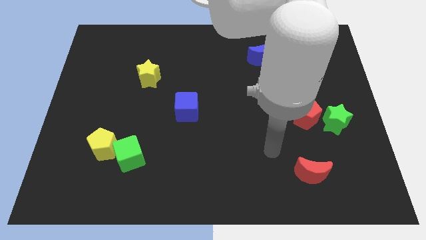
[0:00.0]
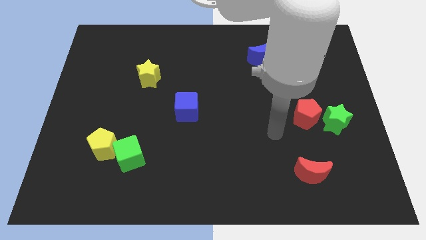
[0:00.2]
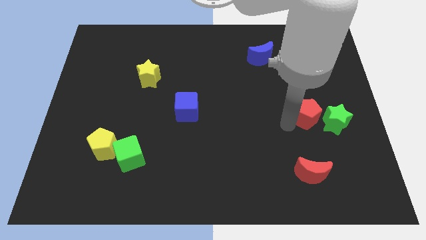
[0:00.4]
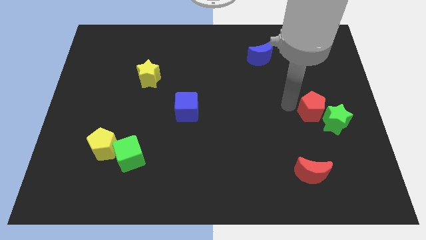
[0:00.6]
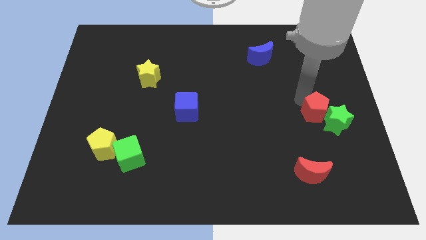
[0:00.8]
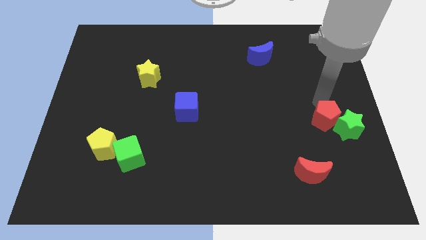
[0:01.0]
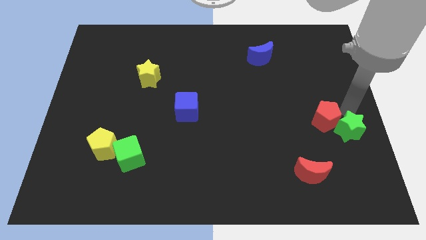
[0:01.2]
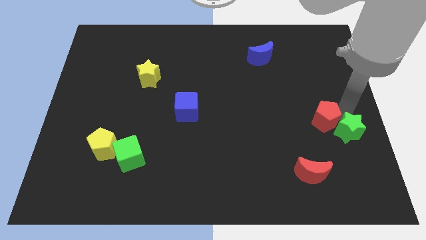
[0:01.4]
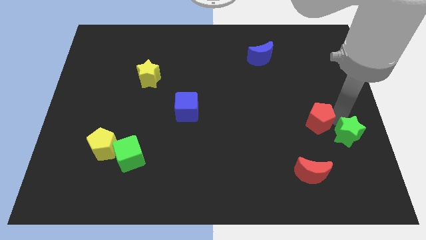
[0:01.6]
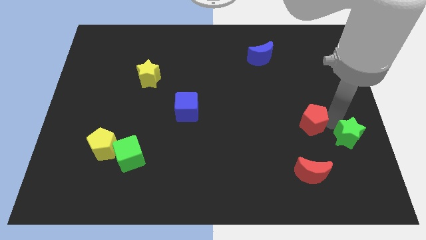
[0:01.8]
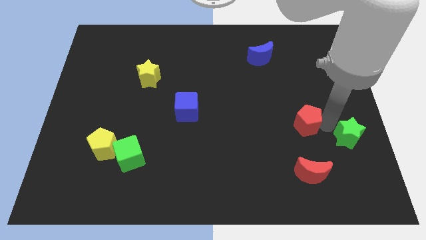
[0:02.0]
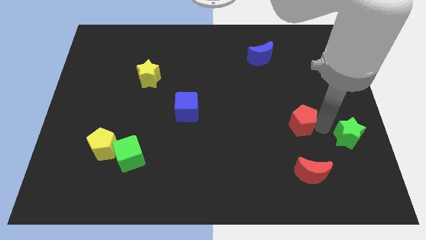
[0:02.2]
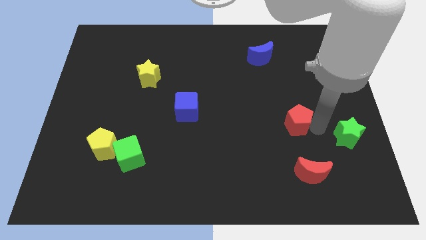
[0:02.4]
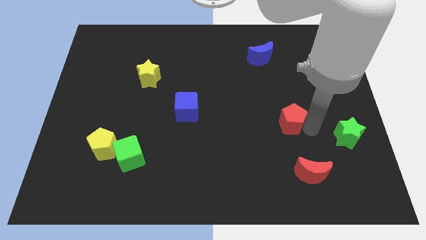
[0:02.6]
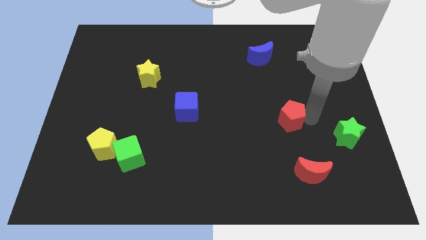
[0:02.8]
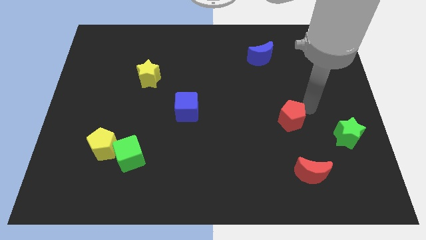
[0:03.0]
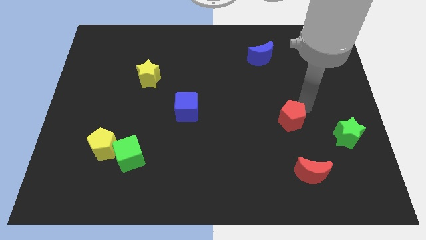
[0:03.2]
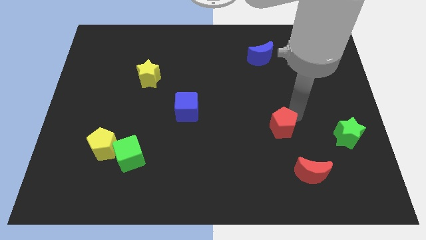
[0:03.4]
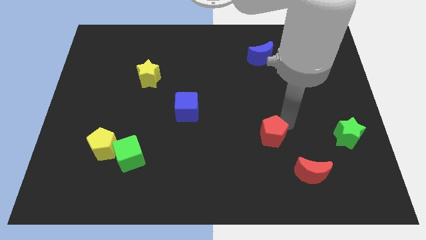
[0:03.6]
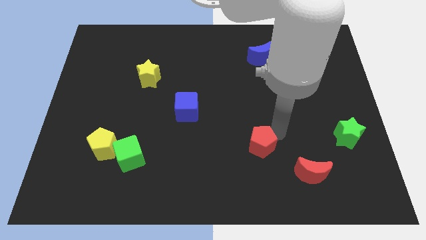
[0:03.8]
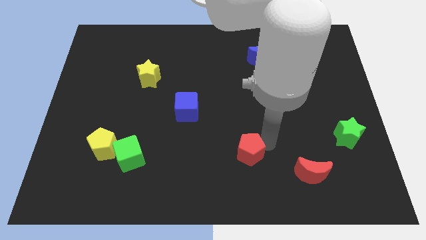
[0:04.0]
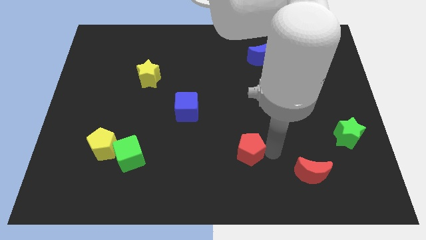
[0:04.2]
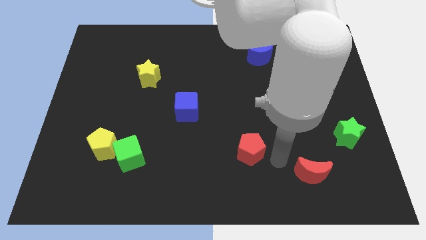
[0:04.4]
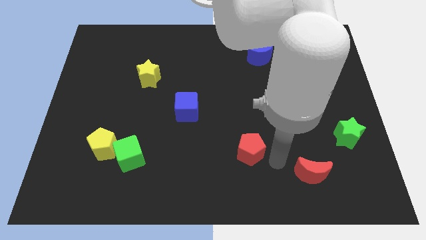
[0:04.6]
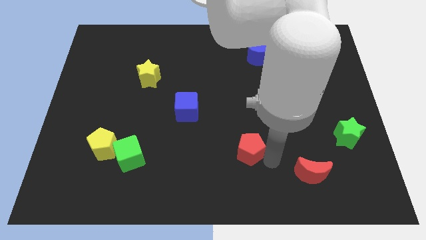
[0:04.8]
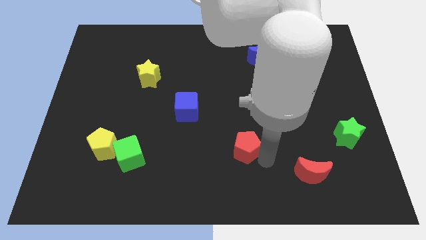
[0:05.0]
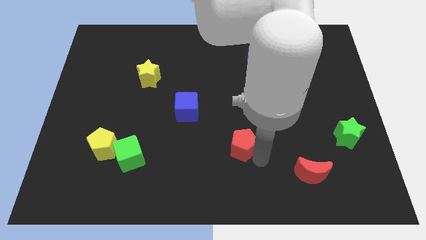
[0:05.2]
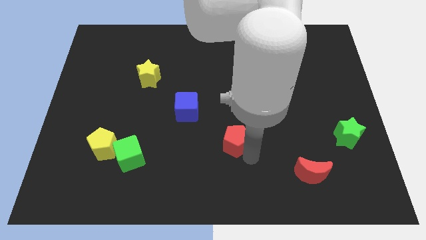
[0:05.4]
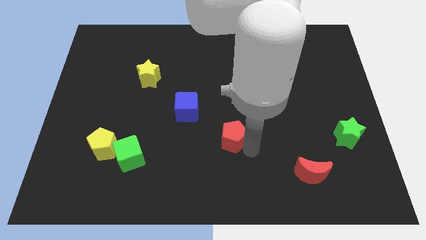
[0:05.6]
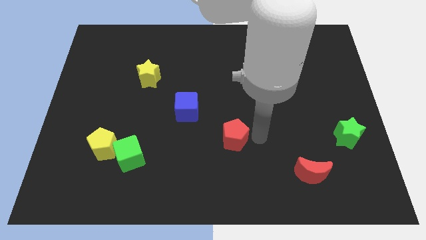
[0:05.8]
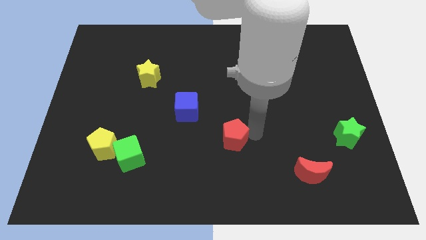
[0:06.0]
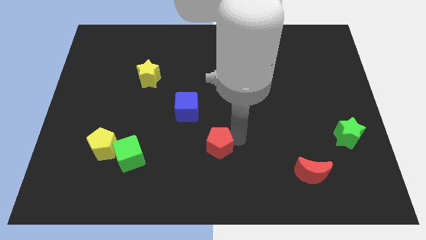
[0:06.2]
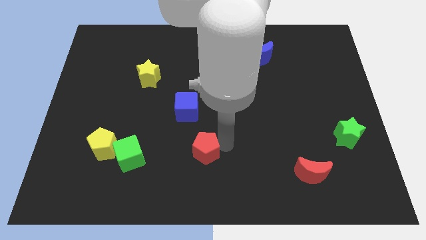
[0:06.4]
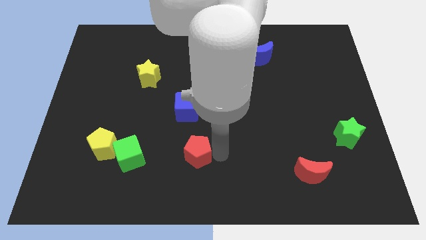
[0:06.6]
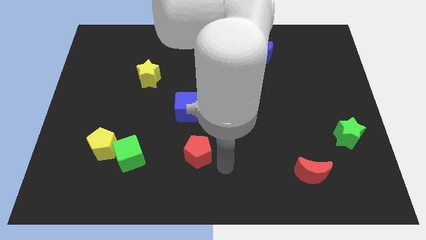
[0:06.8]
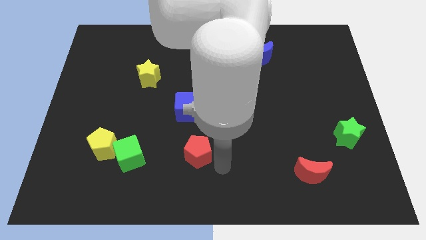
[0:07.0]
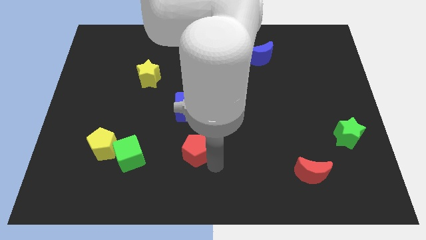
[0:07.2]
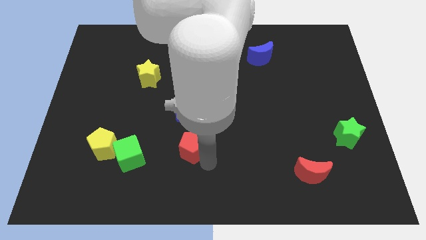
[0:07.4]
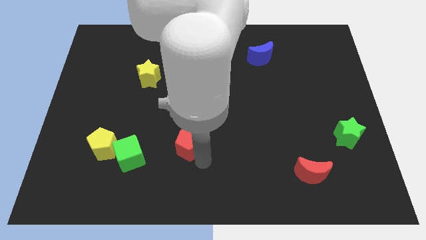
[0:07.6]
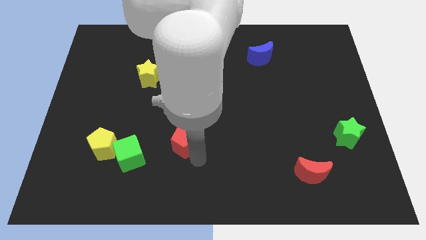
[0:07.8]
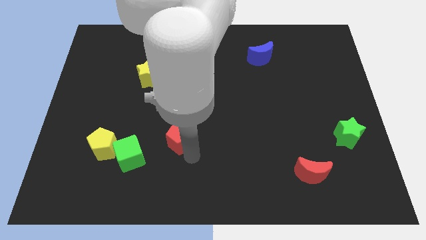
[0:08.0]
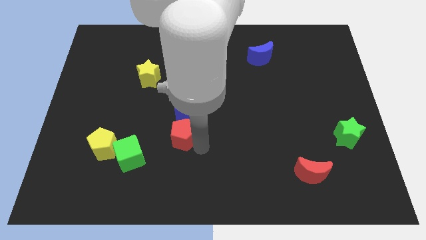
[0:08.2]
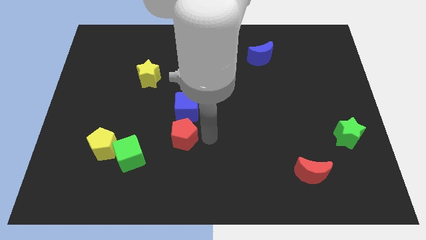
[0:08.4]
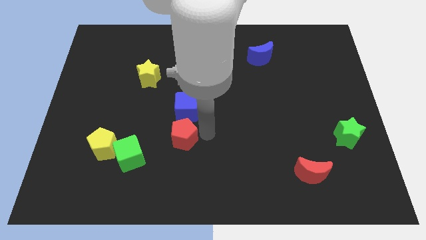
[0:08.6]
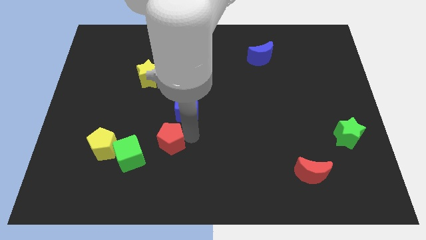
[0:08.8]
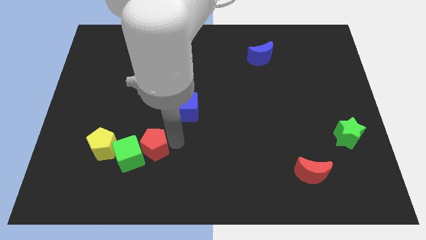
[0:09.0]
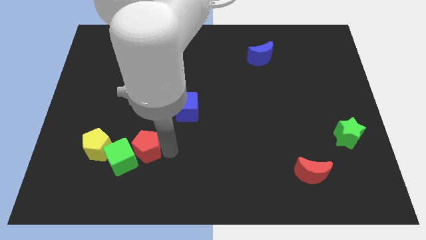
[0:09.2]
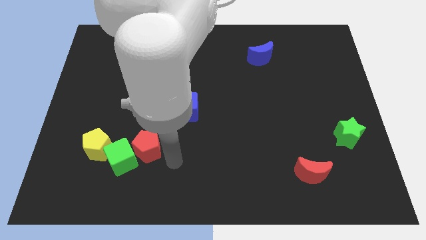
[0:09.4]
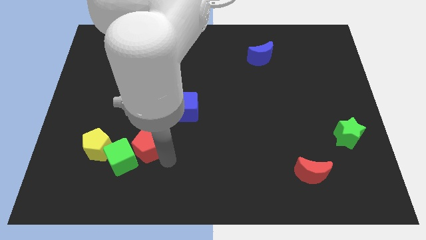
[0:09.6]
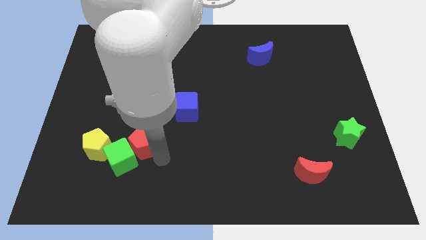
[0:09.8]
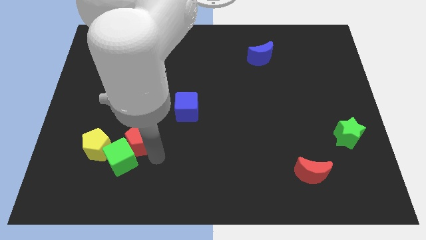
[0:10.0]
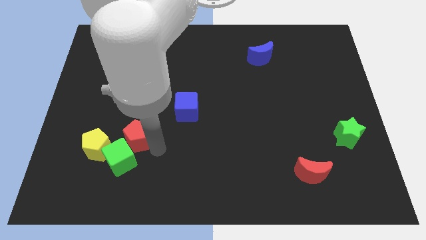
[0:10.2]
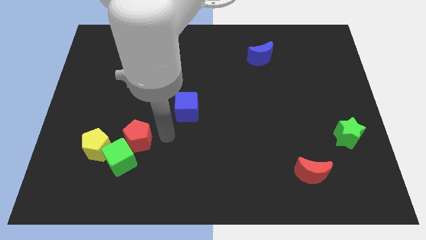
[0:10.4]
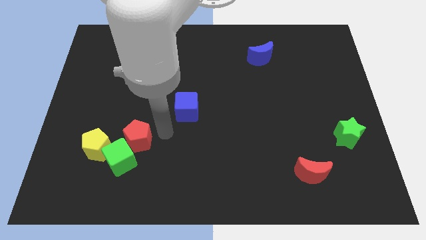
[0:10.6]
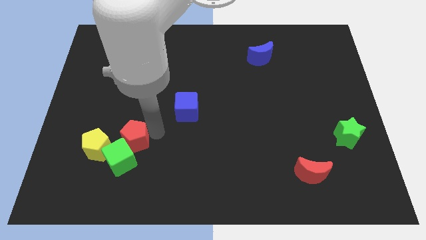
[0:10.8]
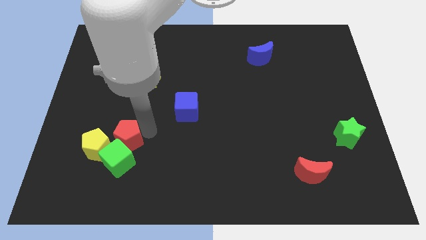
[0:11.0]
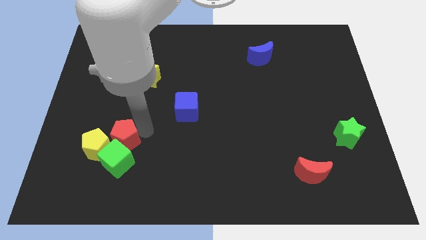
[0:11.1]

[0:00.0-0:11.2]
slide the red pentagon to the yellow pentagon

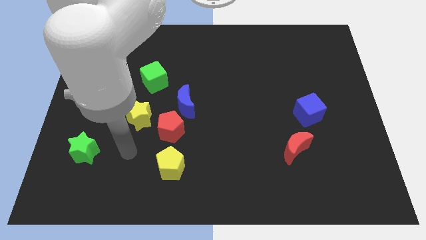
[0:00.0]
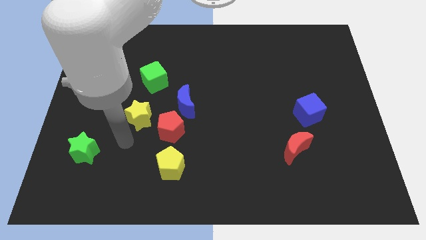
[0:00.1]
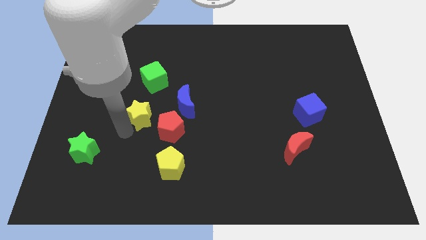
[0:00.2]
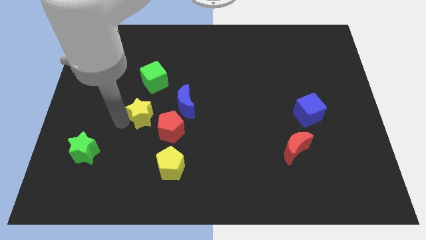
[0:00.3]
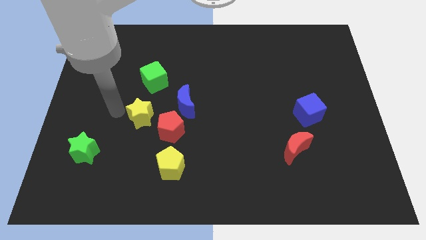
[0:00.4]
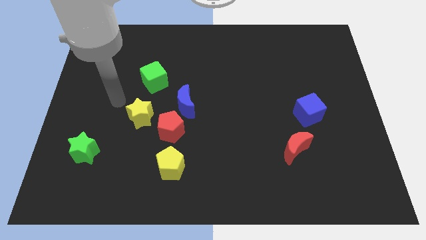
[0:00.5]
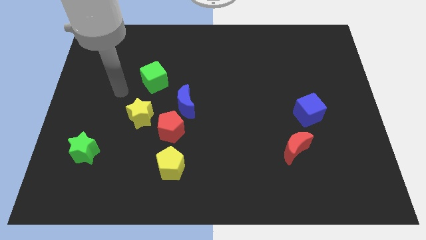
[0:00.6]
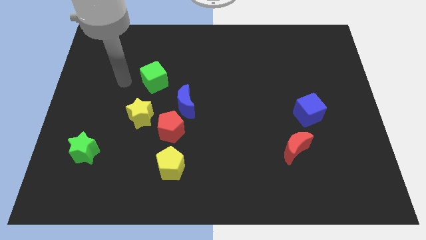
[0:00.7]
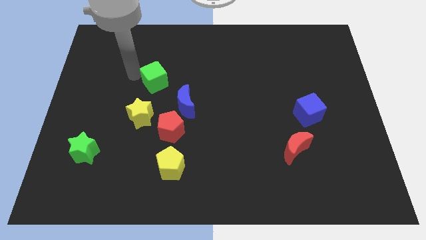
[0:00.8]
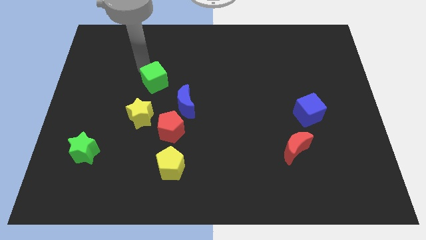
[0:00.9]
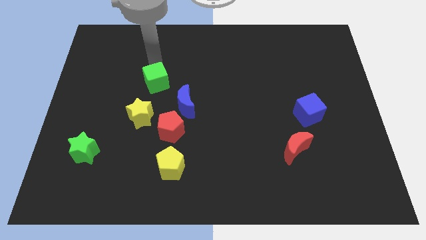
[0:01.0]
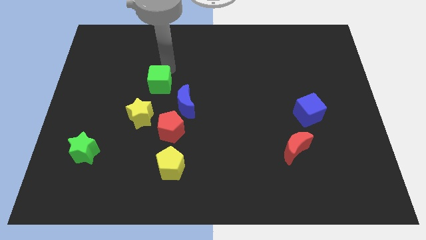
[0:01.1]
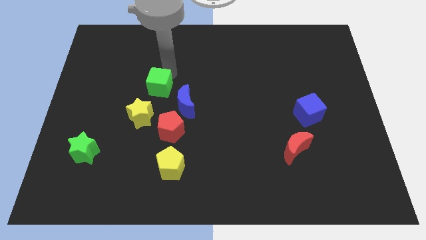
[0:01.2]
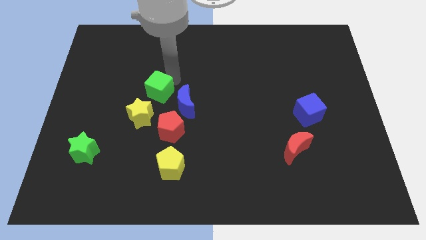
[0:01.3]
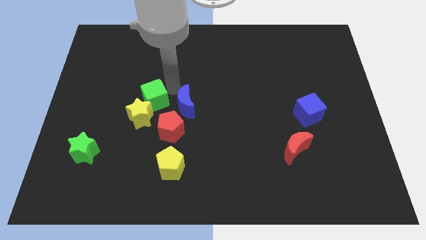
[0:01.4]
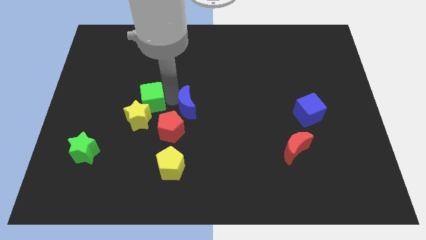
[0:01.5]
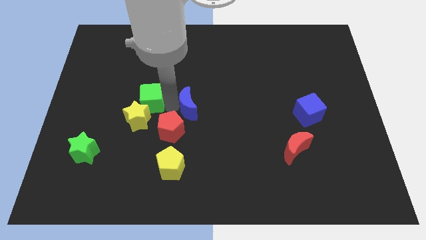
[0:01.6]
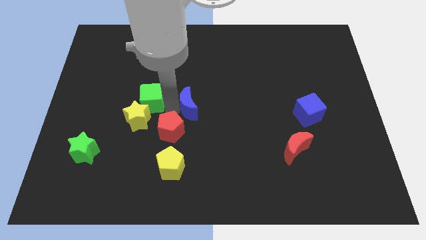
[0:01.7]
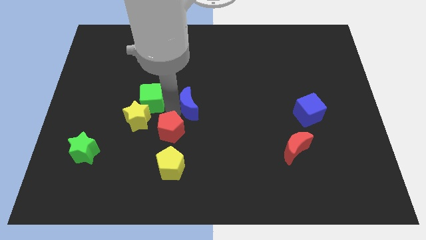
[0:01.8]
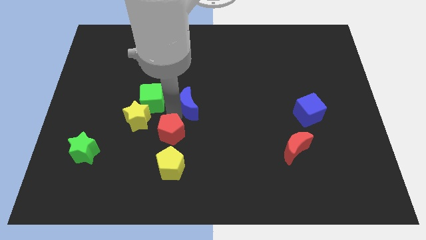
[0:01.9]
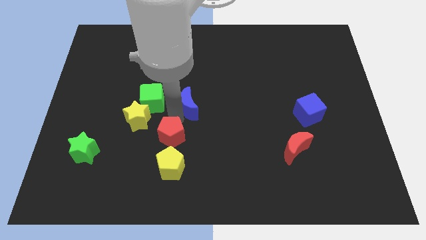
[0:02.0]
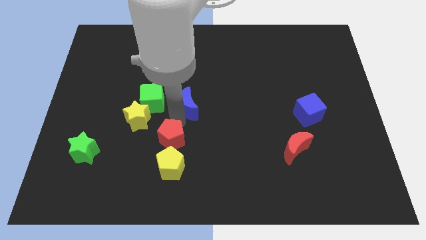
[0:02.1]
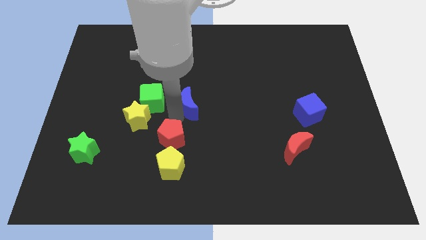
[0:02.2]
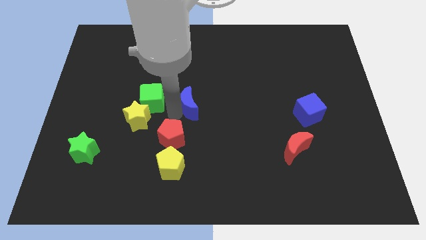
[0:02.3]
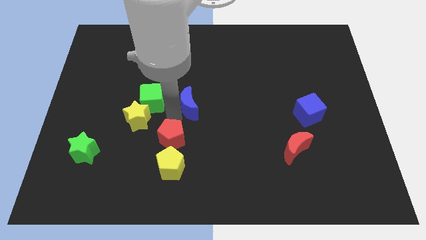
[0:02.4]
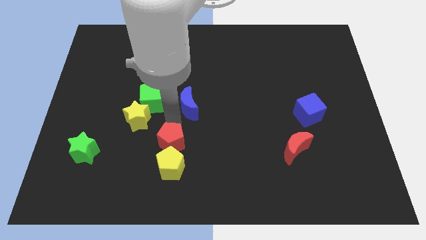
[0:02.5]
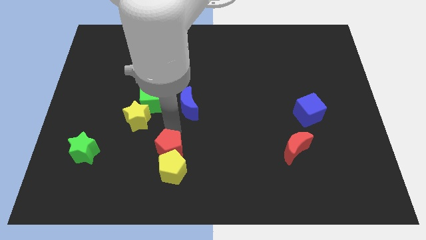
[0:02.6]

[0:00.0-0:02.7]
push the red pentagon next to the yellow pentagon
